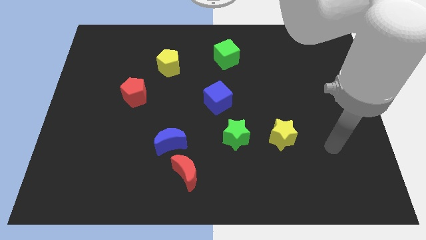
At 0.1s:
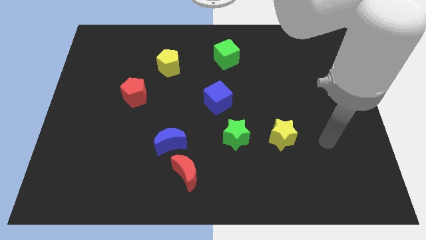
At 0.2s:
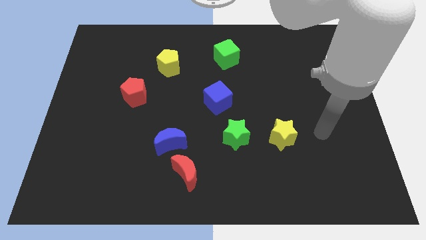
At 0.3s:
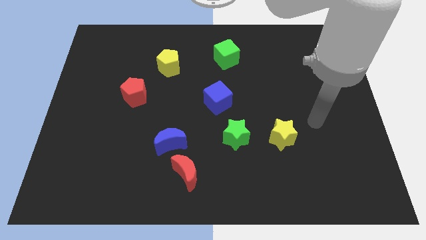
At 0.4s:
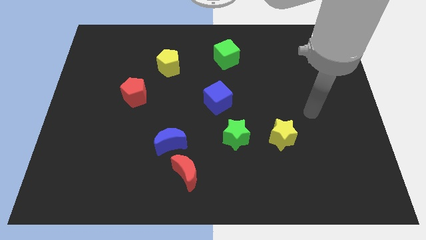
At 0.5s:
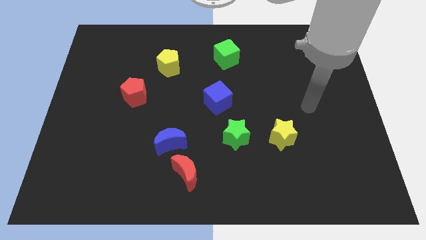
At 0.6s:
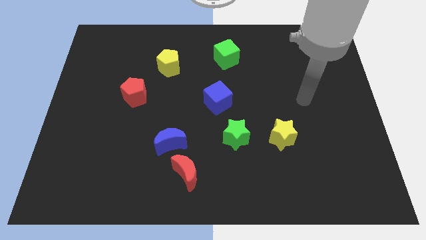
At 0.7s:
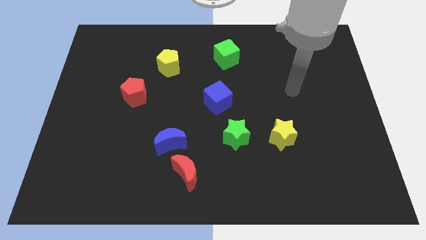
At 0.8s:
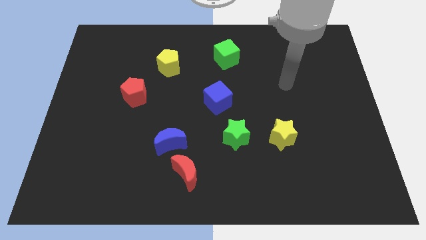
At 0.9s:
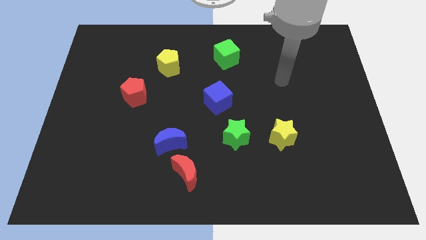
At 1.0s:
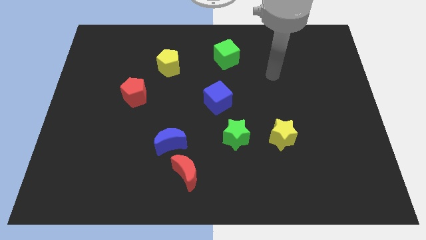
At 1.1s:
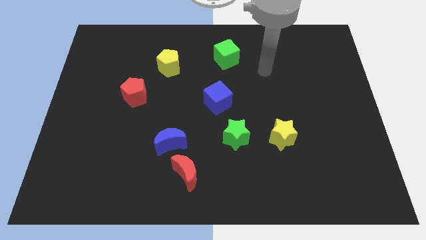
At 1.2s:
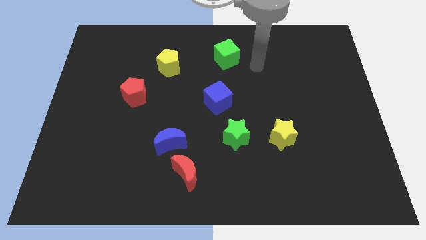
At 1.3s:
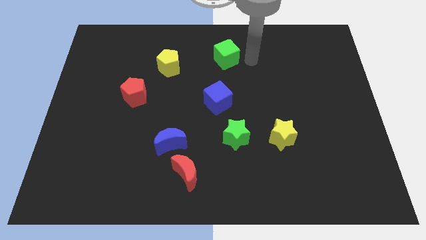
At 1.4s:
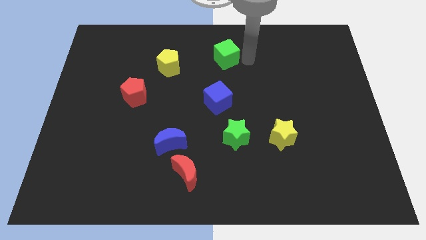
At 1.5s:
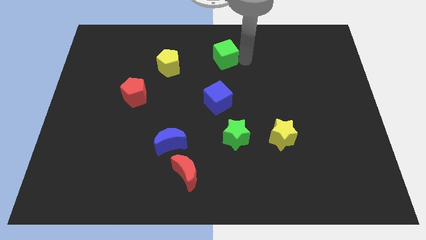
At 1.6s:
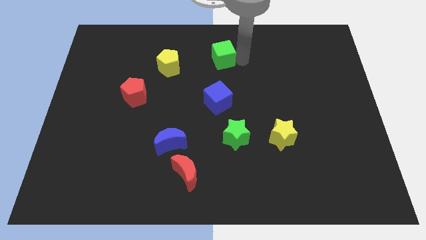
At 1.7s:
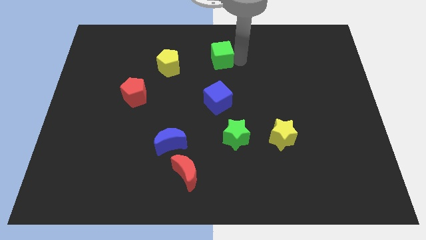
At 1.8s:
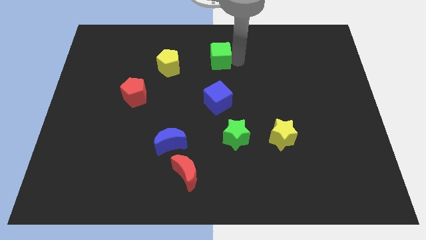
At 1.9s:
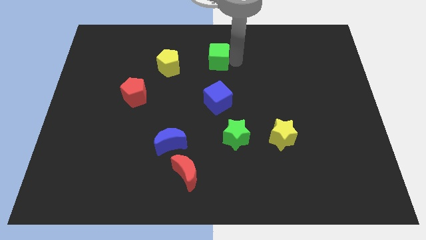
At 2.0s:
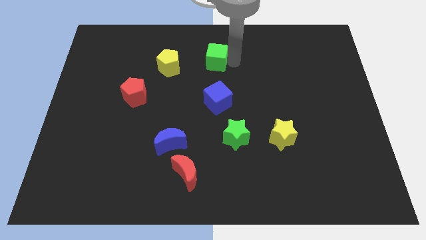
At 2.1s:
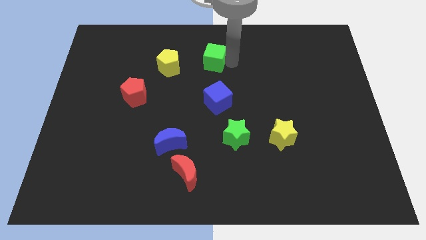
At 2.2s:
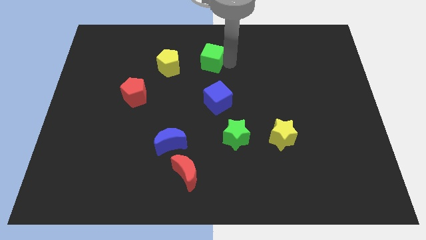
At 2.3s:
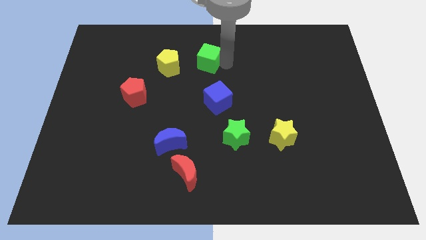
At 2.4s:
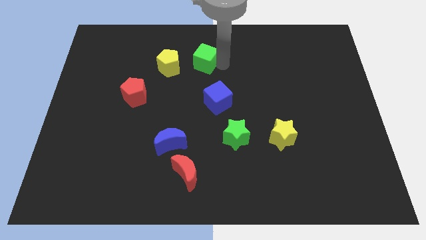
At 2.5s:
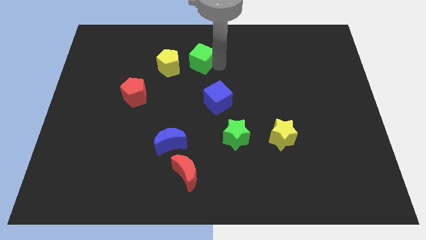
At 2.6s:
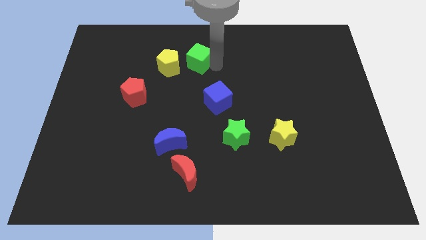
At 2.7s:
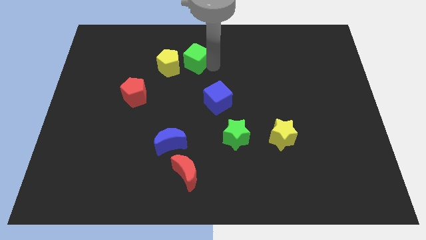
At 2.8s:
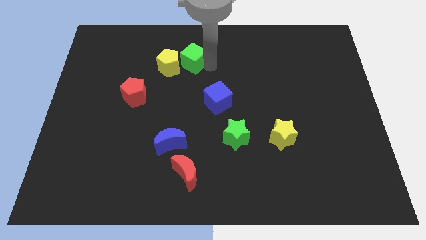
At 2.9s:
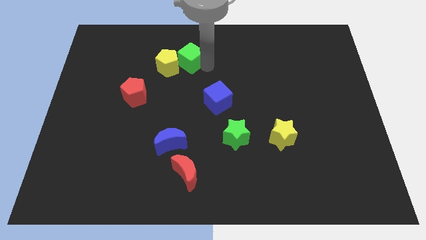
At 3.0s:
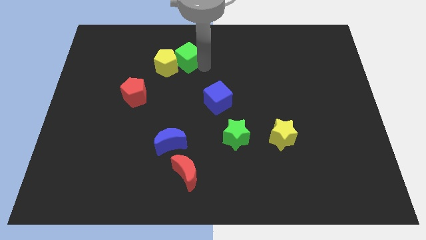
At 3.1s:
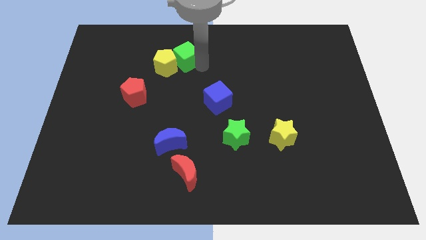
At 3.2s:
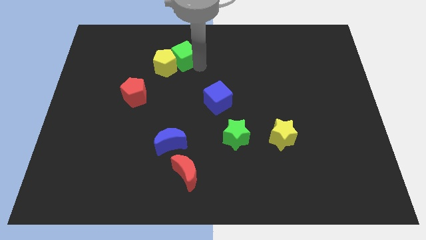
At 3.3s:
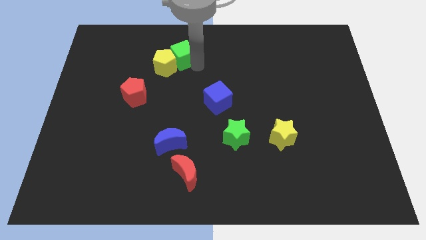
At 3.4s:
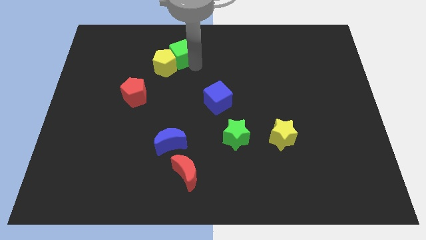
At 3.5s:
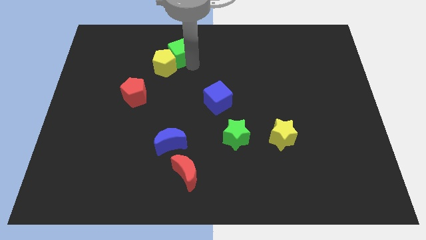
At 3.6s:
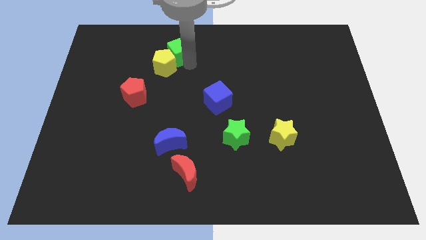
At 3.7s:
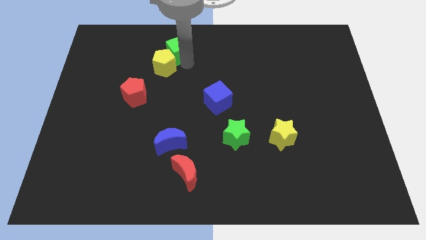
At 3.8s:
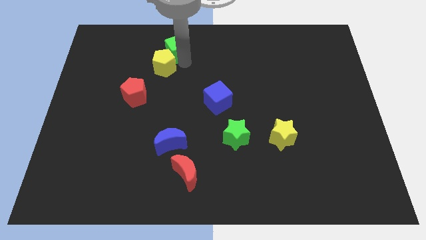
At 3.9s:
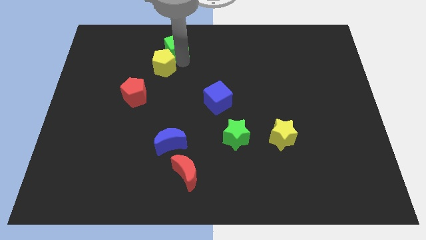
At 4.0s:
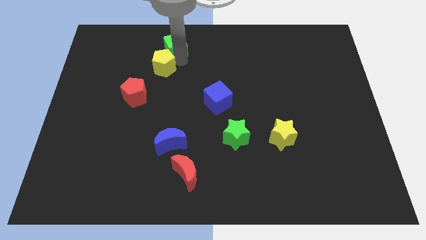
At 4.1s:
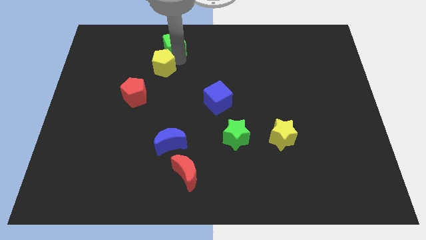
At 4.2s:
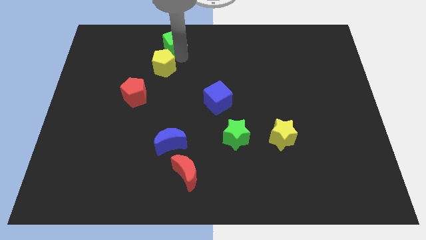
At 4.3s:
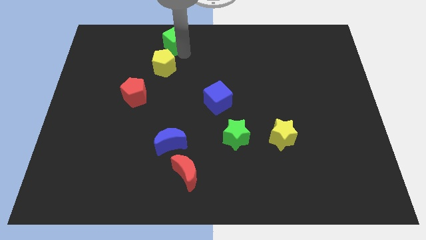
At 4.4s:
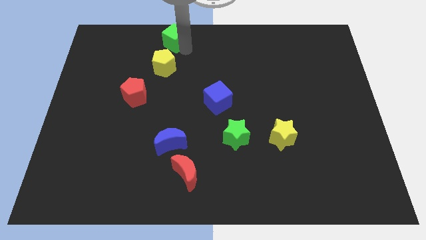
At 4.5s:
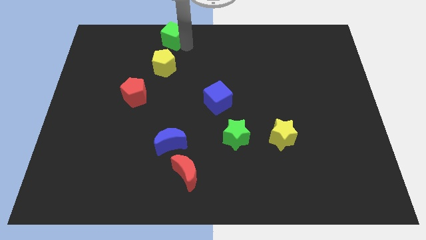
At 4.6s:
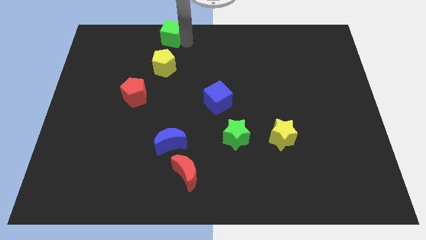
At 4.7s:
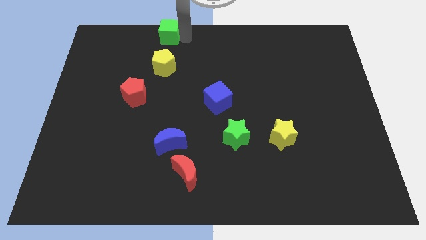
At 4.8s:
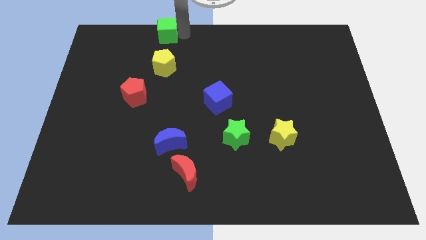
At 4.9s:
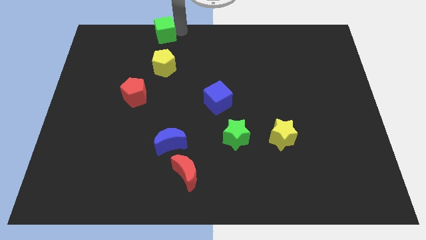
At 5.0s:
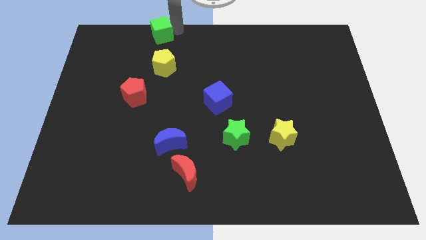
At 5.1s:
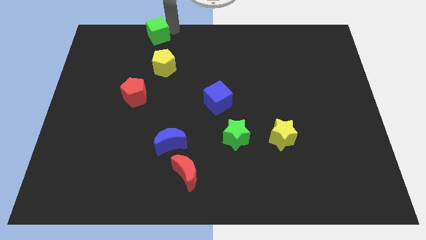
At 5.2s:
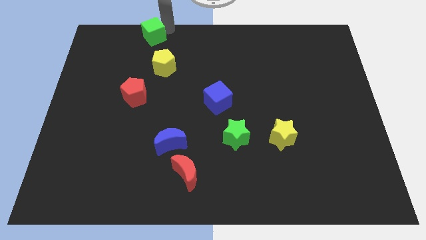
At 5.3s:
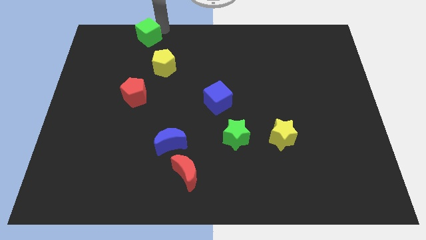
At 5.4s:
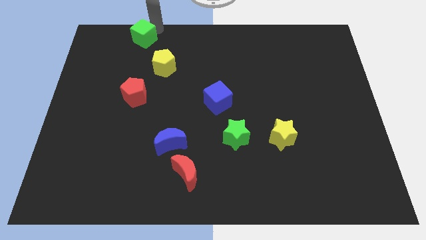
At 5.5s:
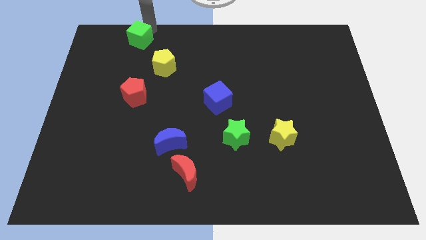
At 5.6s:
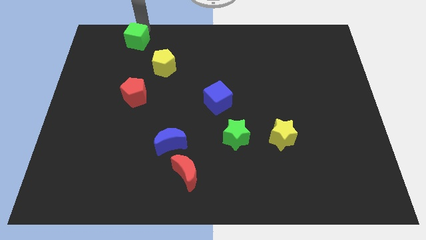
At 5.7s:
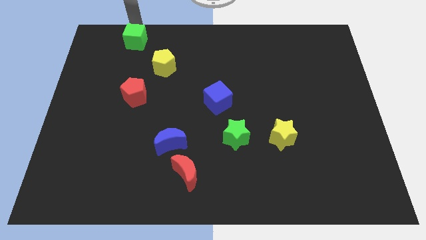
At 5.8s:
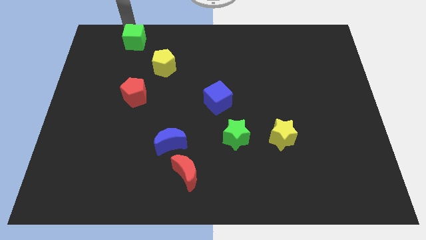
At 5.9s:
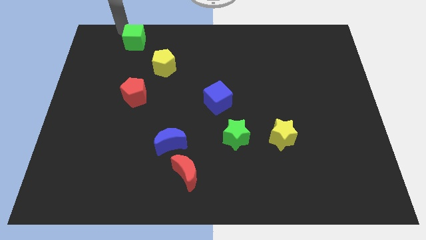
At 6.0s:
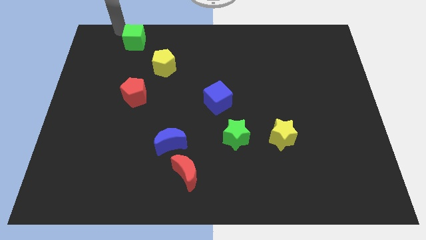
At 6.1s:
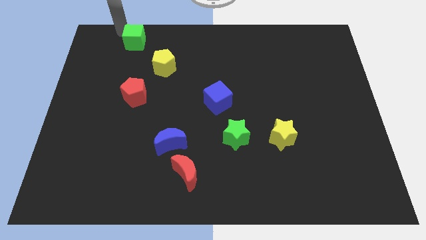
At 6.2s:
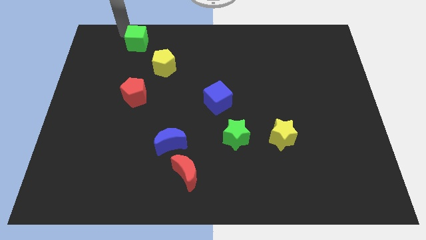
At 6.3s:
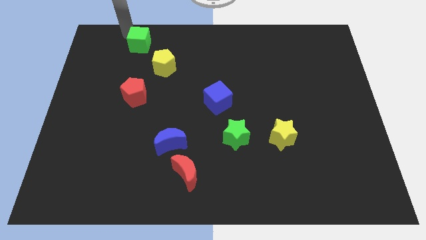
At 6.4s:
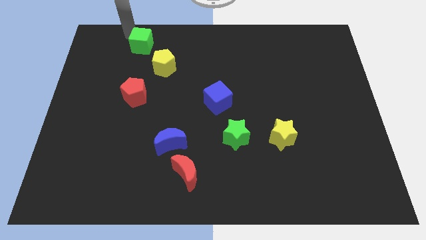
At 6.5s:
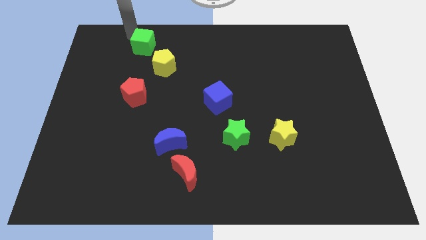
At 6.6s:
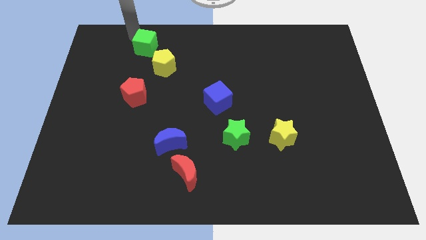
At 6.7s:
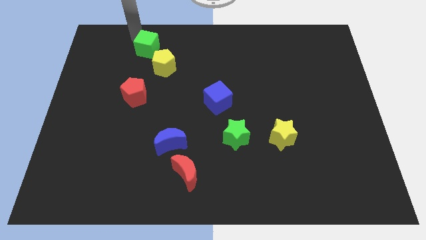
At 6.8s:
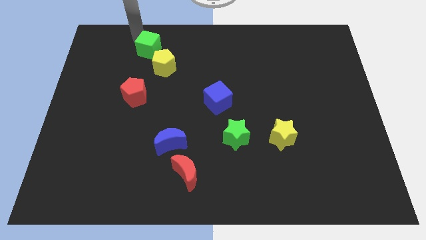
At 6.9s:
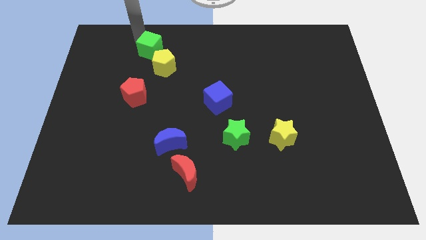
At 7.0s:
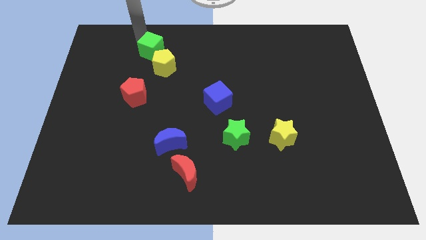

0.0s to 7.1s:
slide the green cube above the red pentagon
